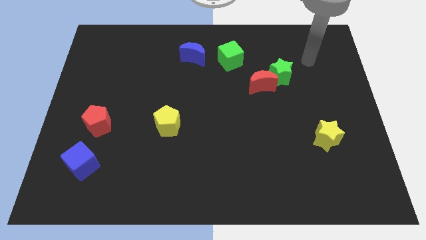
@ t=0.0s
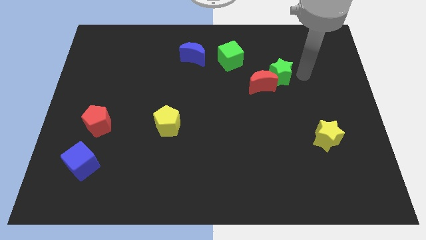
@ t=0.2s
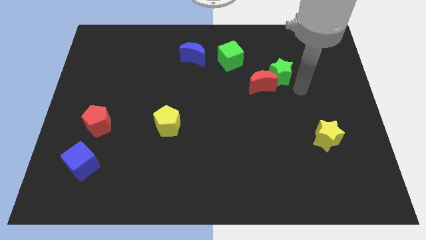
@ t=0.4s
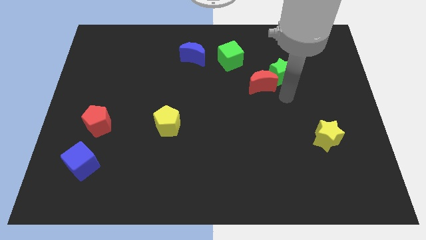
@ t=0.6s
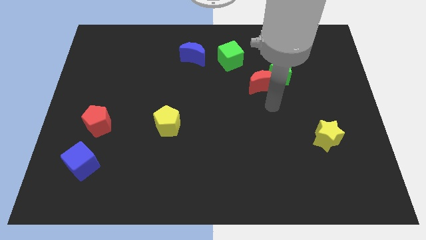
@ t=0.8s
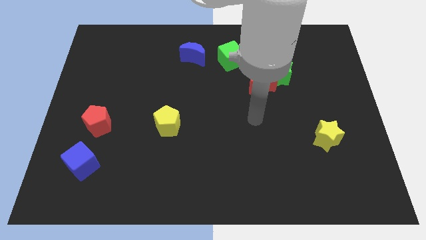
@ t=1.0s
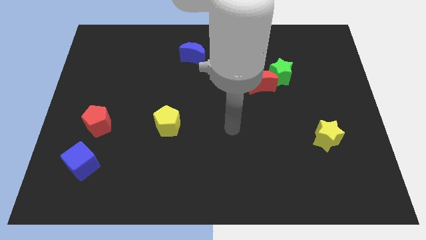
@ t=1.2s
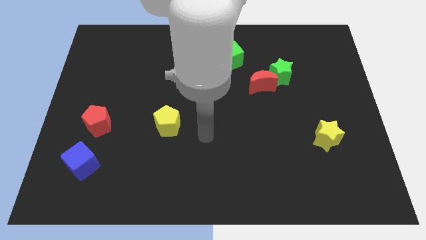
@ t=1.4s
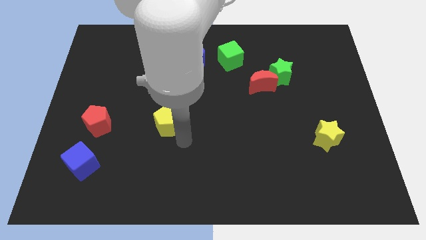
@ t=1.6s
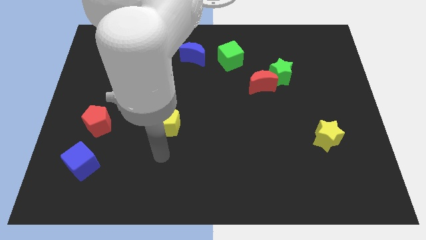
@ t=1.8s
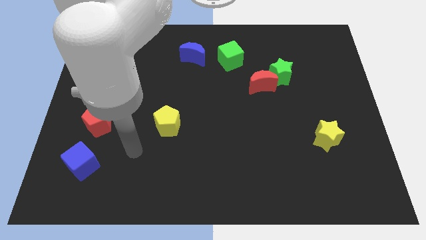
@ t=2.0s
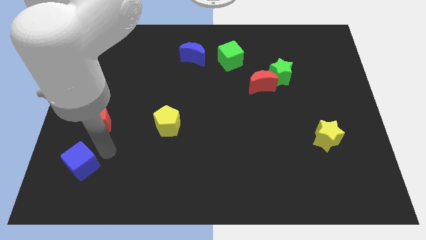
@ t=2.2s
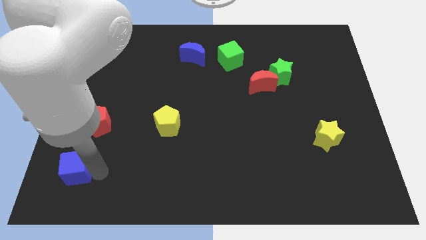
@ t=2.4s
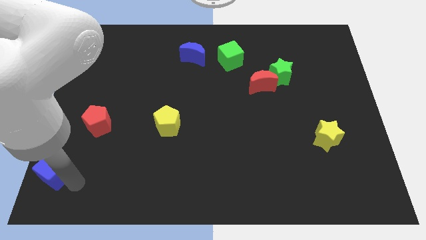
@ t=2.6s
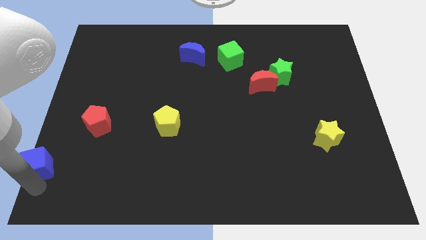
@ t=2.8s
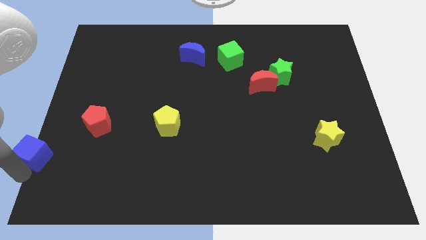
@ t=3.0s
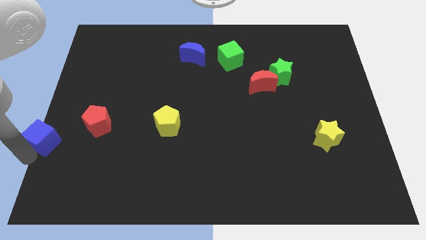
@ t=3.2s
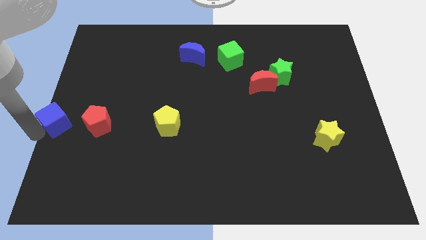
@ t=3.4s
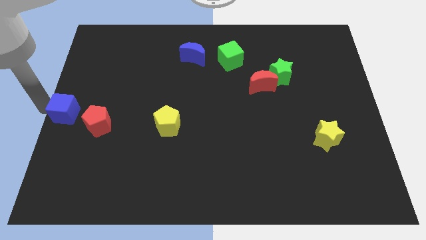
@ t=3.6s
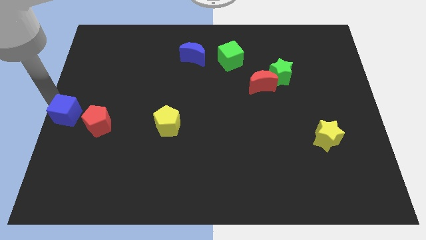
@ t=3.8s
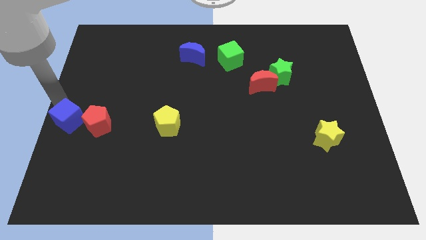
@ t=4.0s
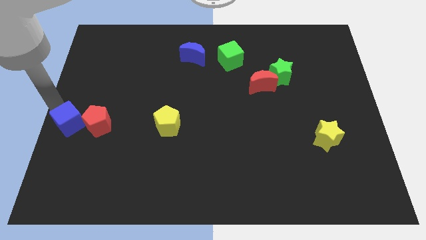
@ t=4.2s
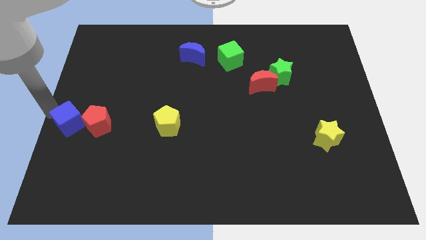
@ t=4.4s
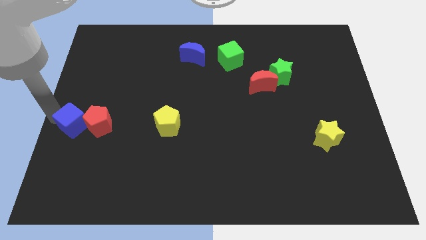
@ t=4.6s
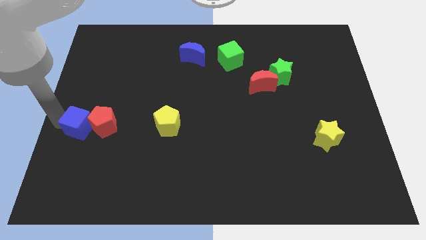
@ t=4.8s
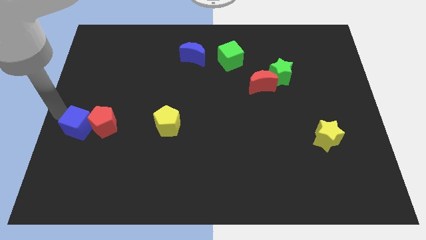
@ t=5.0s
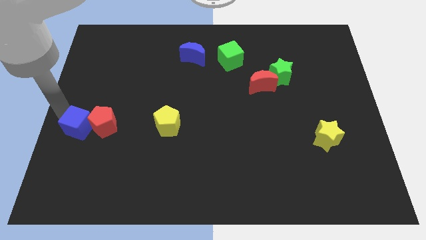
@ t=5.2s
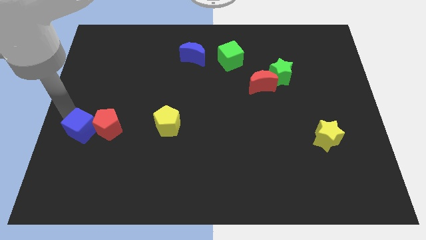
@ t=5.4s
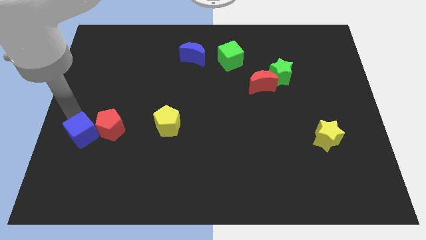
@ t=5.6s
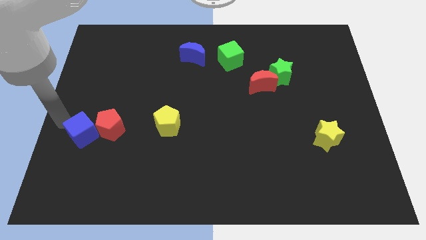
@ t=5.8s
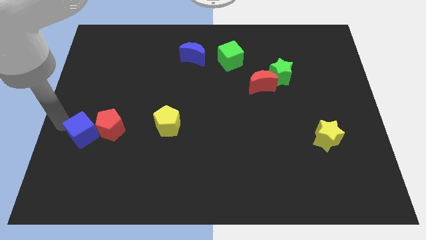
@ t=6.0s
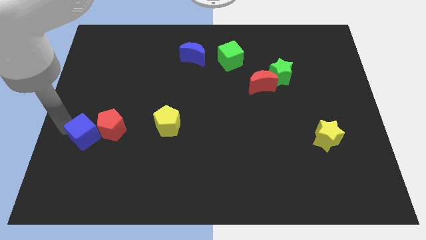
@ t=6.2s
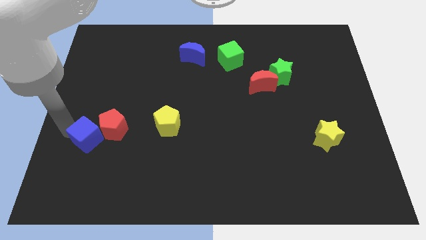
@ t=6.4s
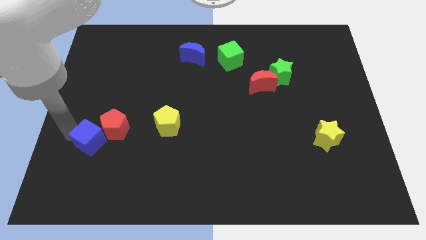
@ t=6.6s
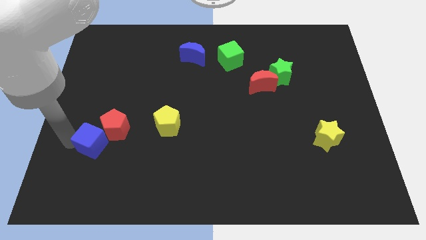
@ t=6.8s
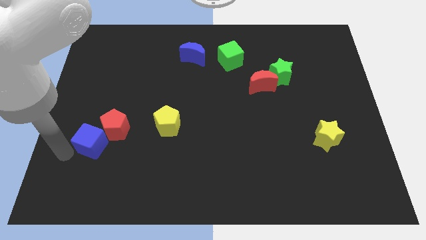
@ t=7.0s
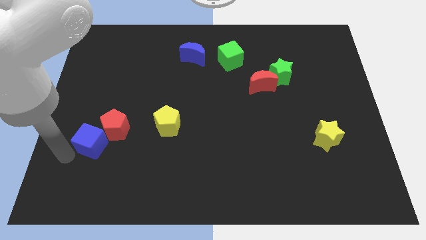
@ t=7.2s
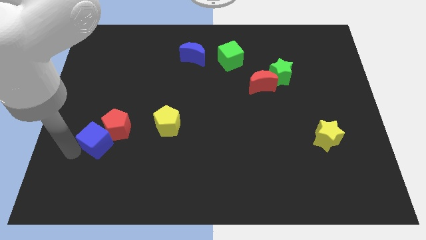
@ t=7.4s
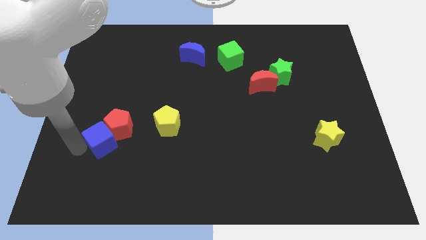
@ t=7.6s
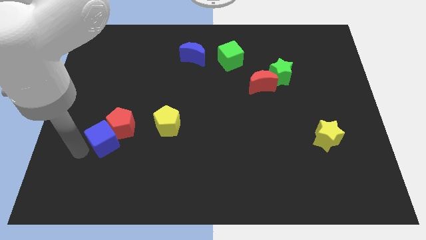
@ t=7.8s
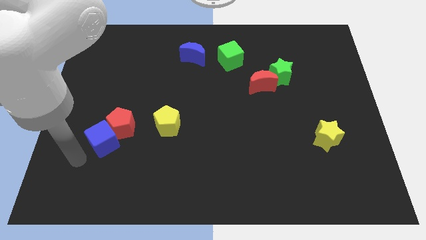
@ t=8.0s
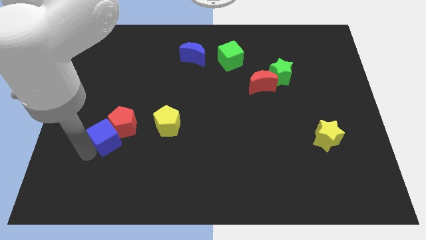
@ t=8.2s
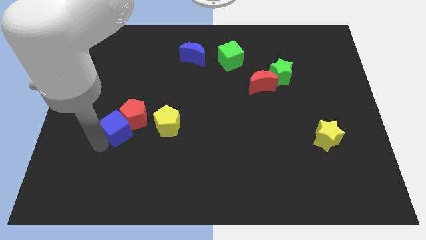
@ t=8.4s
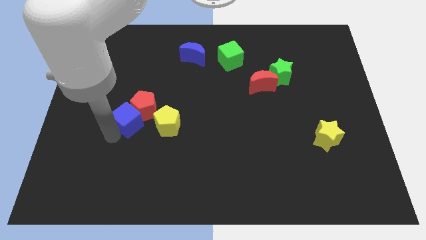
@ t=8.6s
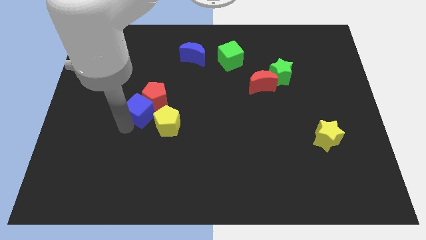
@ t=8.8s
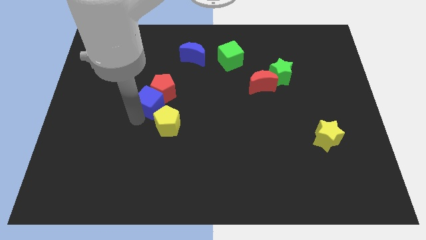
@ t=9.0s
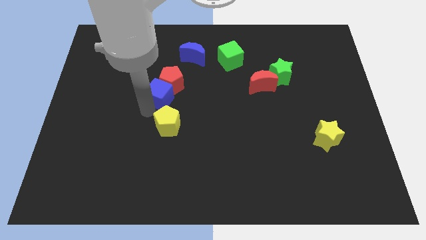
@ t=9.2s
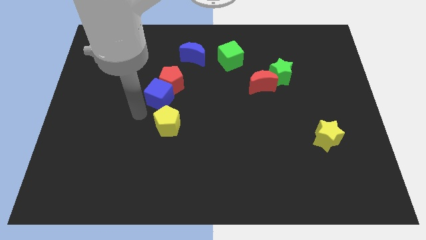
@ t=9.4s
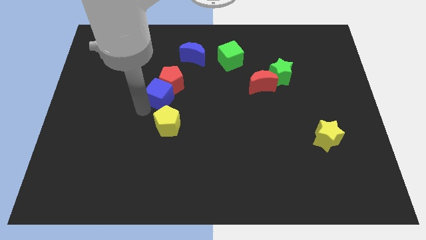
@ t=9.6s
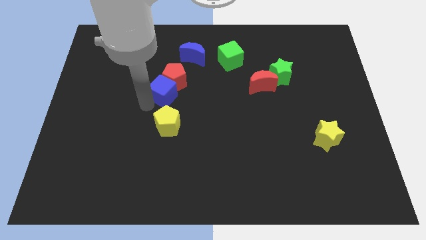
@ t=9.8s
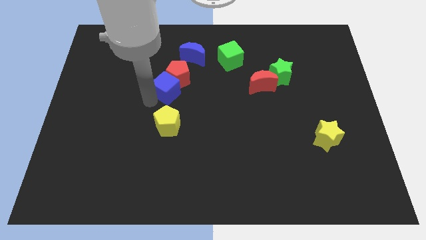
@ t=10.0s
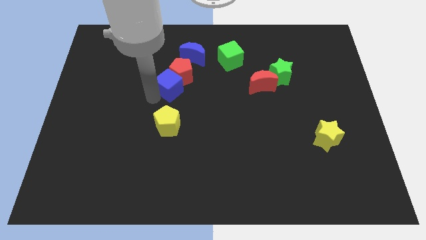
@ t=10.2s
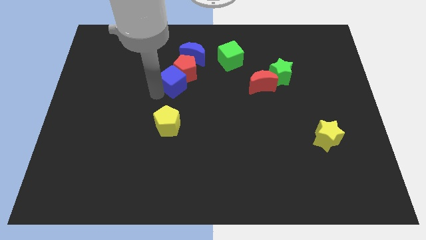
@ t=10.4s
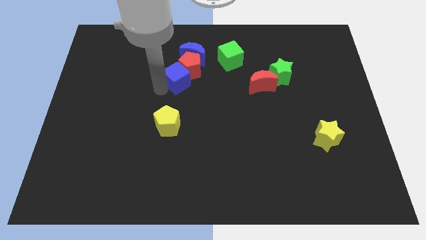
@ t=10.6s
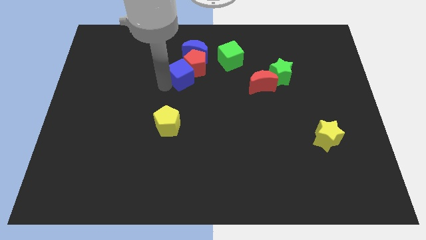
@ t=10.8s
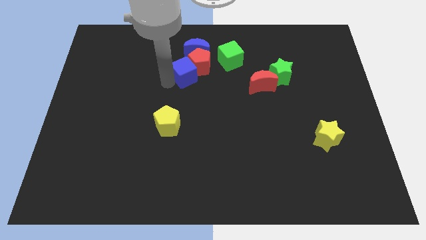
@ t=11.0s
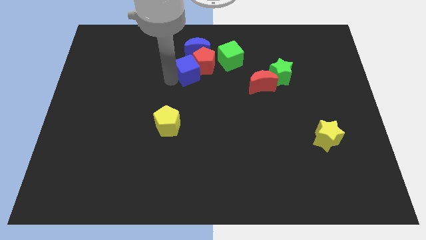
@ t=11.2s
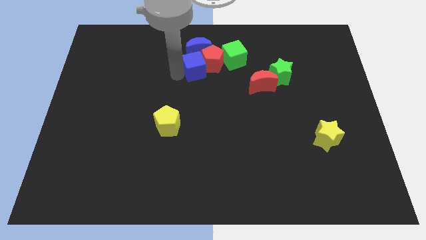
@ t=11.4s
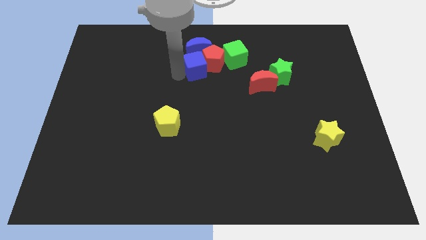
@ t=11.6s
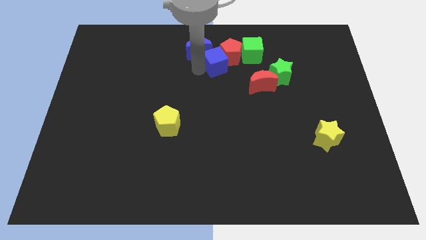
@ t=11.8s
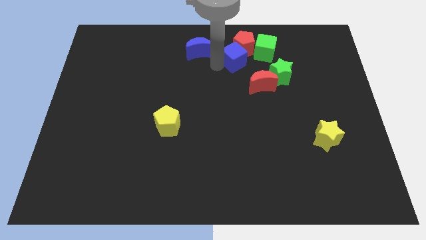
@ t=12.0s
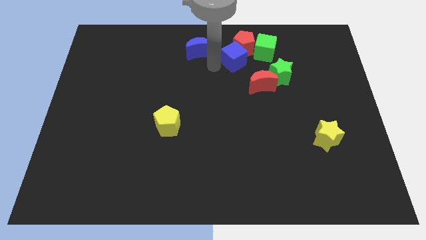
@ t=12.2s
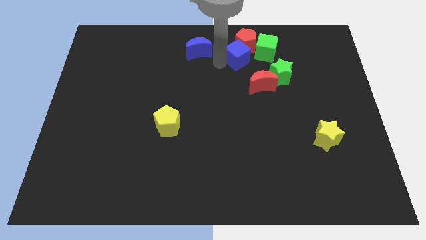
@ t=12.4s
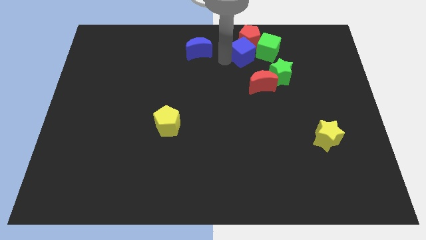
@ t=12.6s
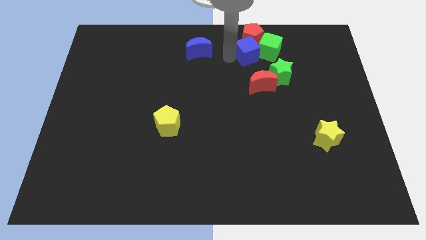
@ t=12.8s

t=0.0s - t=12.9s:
put the blue cube next to the green cube

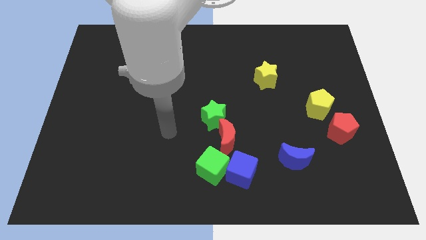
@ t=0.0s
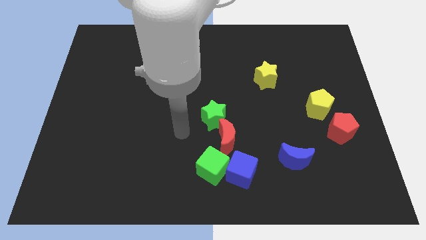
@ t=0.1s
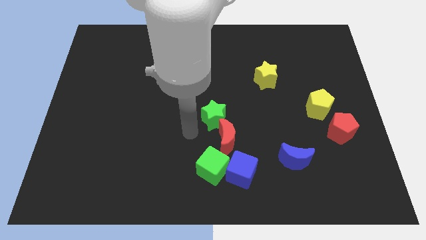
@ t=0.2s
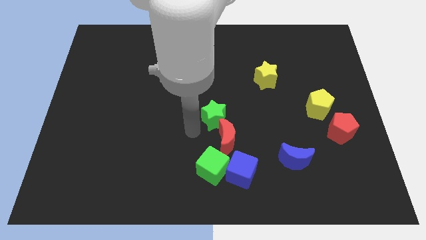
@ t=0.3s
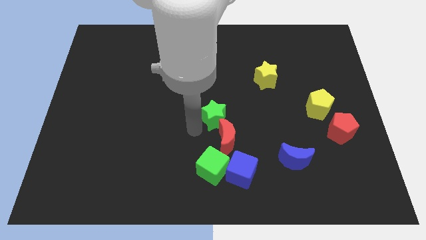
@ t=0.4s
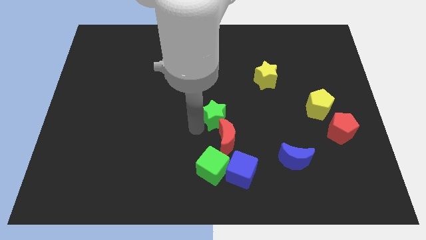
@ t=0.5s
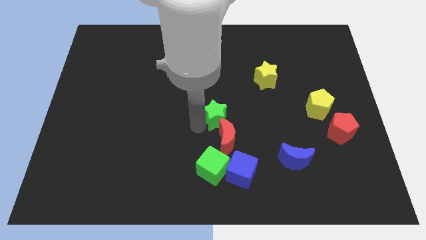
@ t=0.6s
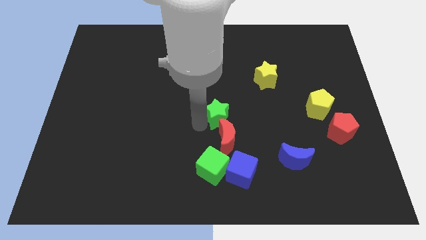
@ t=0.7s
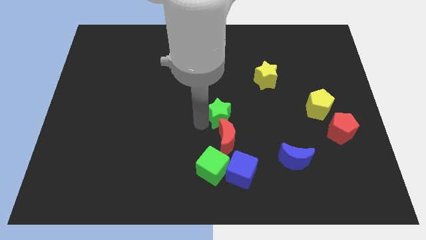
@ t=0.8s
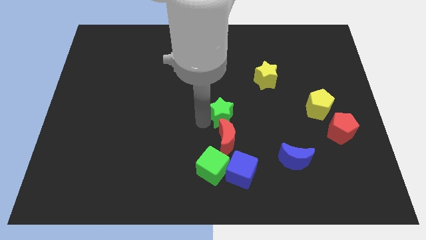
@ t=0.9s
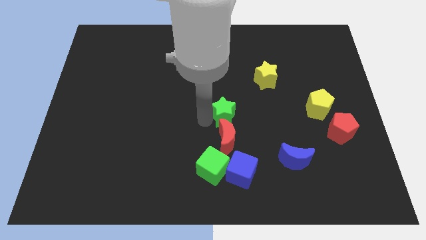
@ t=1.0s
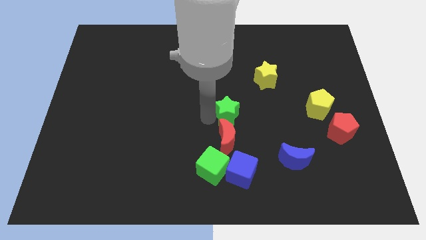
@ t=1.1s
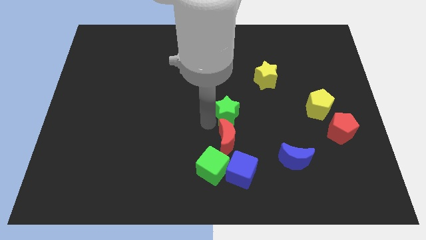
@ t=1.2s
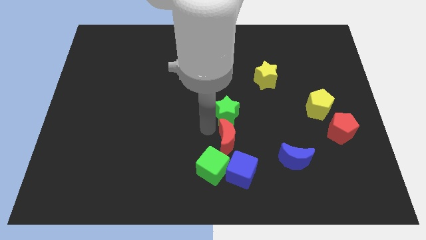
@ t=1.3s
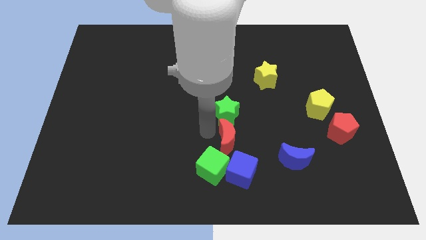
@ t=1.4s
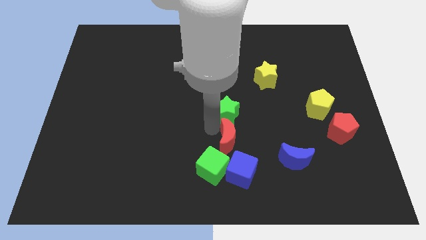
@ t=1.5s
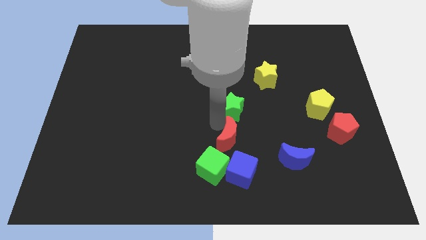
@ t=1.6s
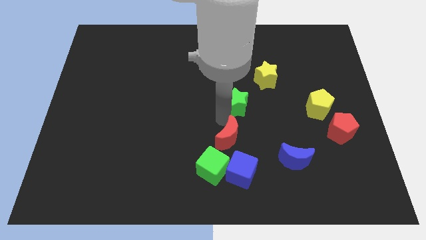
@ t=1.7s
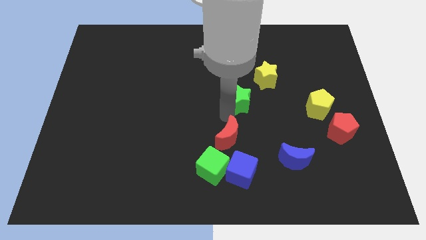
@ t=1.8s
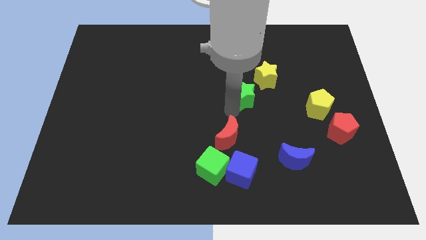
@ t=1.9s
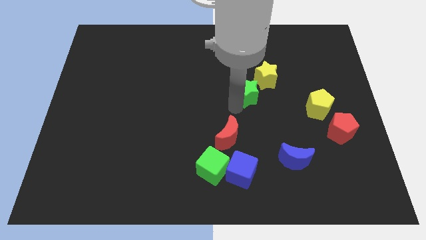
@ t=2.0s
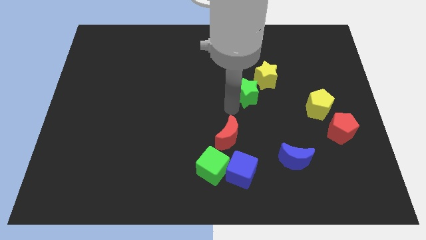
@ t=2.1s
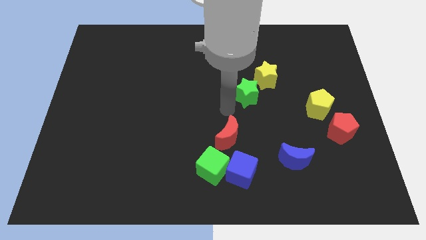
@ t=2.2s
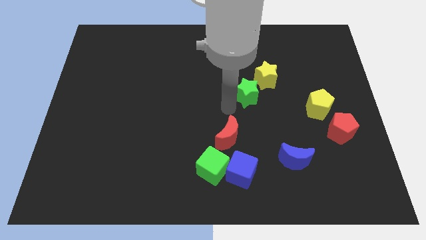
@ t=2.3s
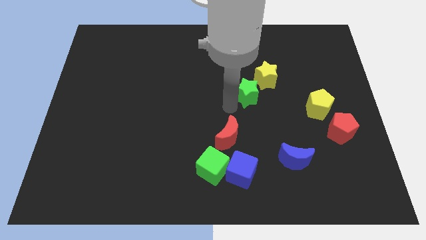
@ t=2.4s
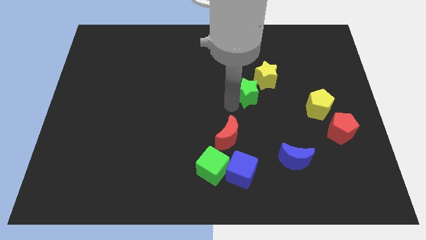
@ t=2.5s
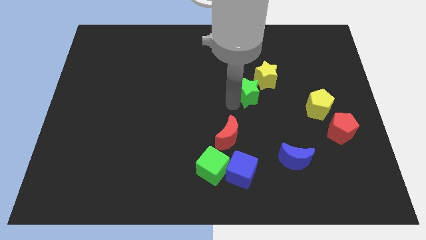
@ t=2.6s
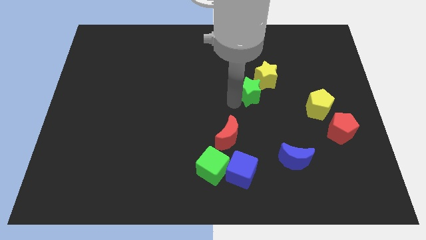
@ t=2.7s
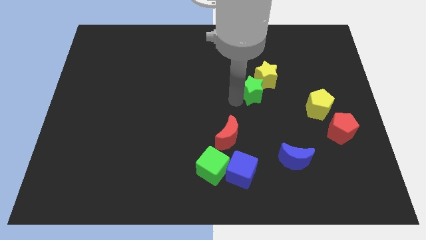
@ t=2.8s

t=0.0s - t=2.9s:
slide the green star close to the yellow star
